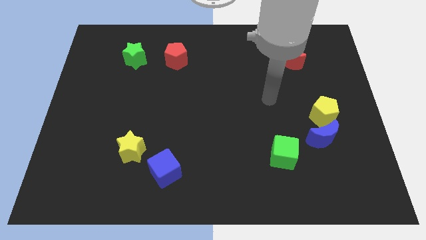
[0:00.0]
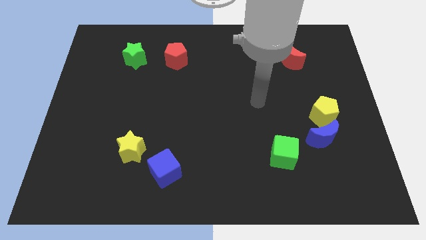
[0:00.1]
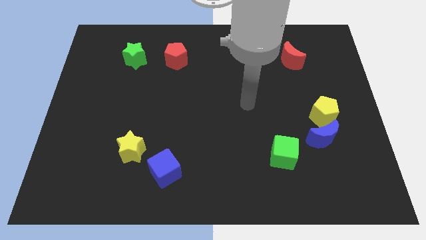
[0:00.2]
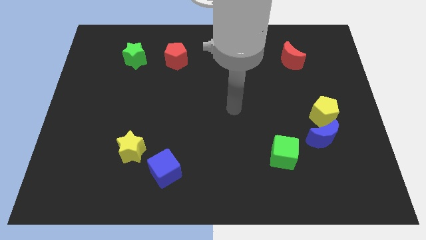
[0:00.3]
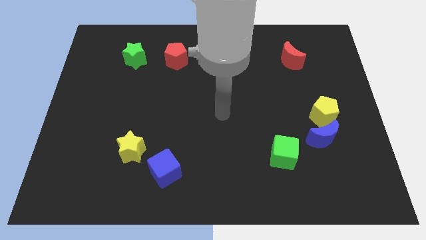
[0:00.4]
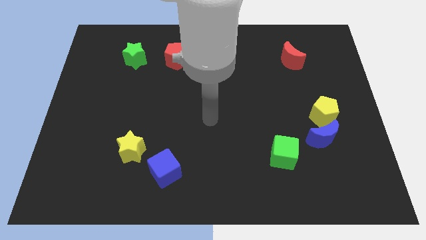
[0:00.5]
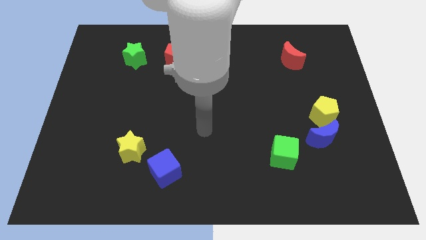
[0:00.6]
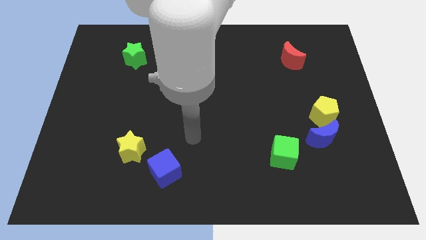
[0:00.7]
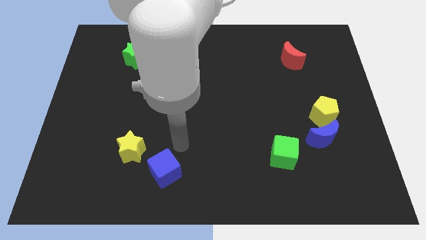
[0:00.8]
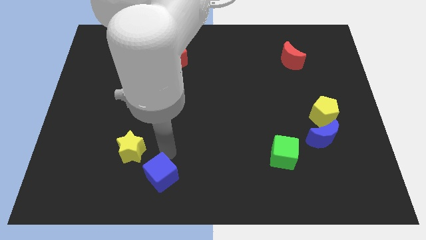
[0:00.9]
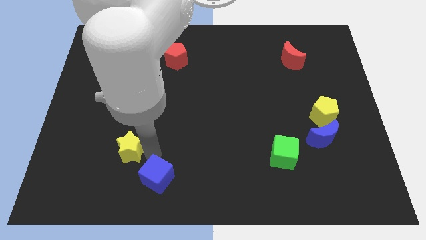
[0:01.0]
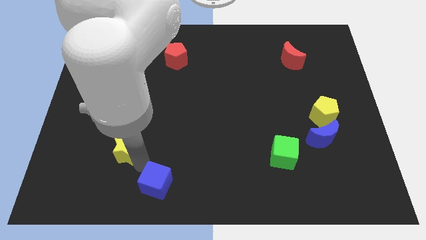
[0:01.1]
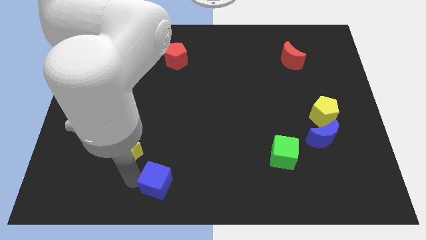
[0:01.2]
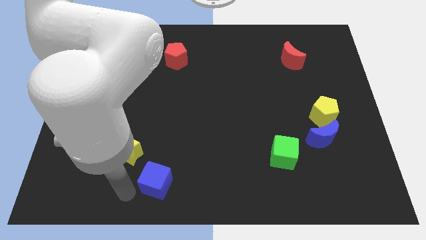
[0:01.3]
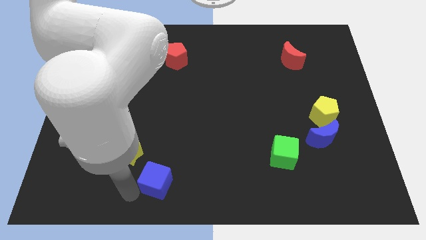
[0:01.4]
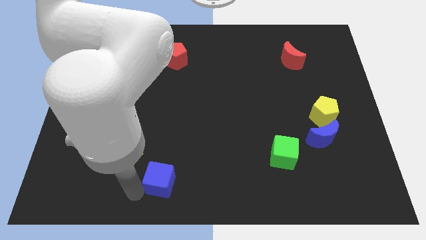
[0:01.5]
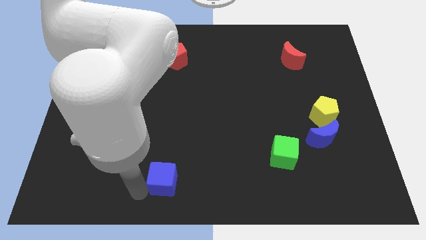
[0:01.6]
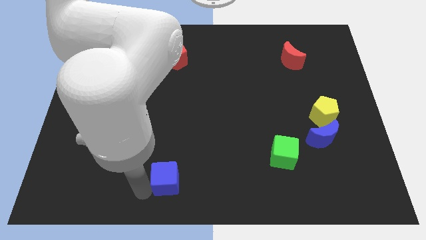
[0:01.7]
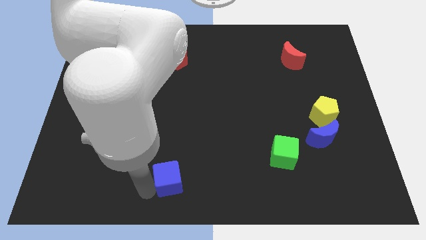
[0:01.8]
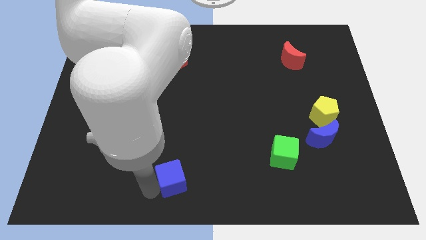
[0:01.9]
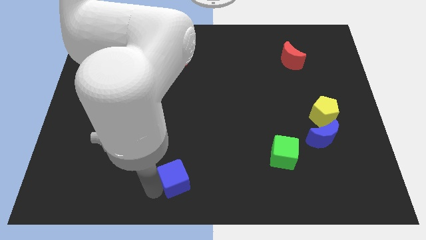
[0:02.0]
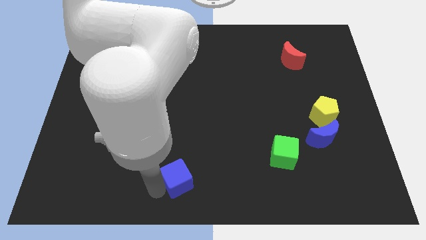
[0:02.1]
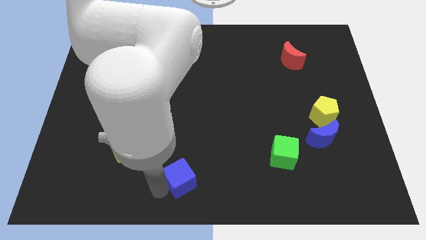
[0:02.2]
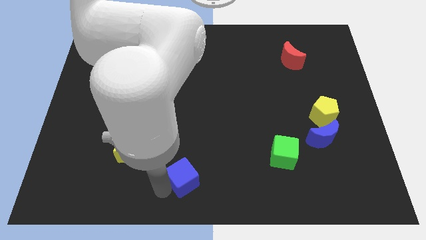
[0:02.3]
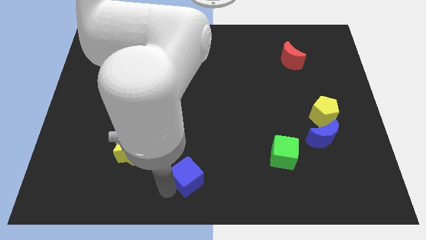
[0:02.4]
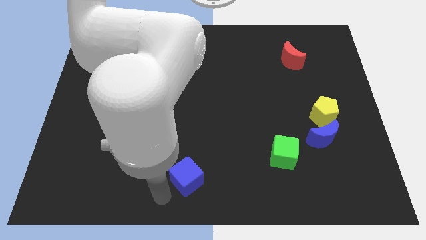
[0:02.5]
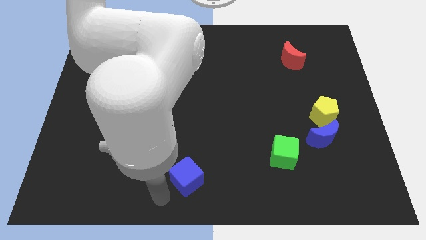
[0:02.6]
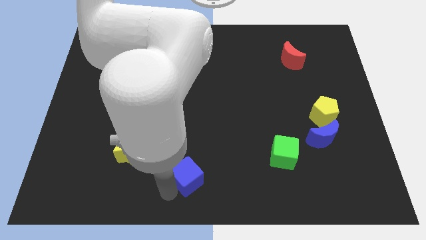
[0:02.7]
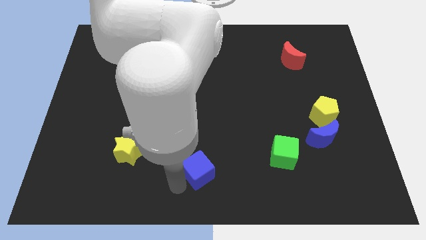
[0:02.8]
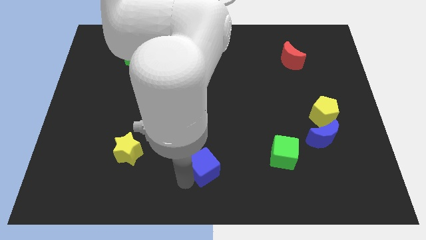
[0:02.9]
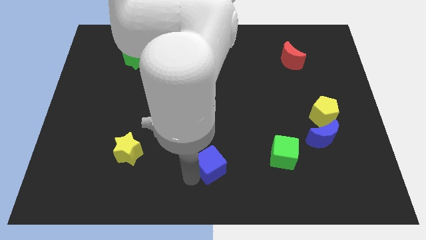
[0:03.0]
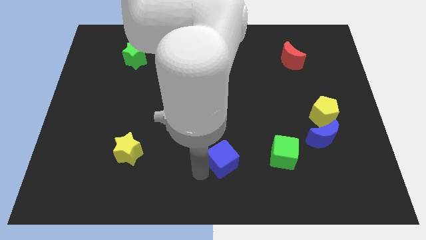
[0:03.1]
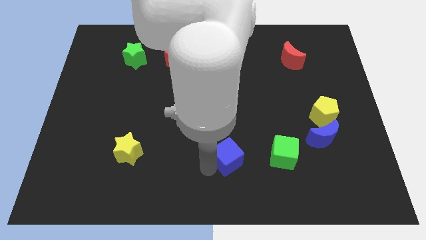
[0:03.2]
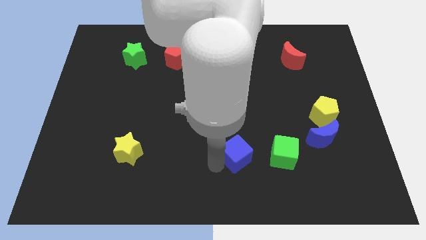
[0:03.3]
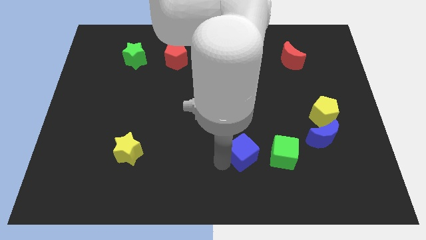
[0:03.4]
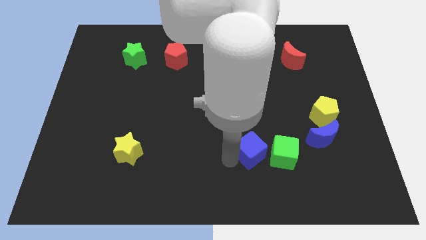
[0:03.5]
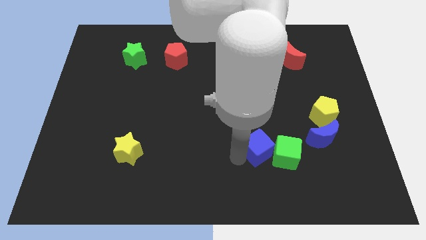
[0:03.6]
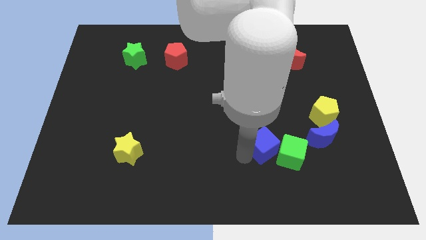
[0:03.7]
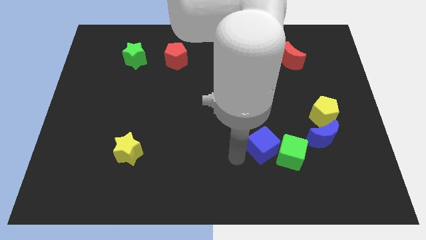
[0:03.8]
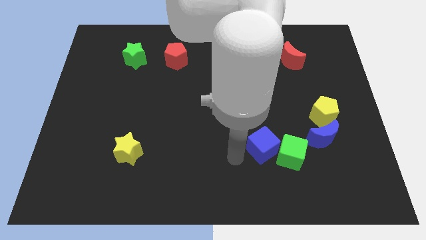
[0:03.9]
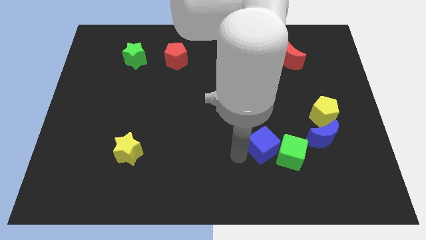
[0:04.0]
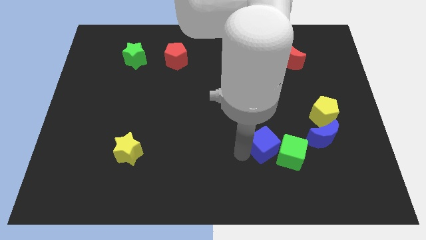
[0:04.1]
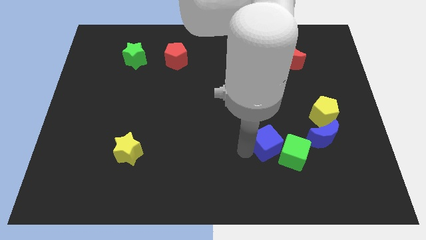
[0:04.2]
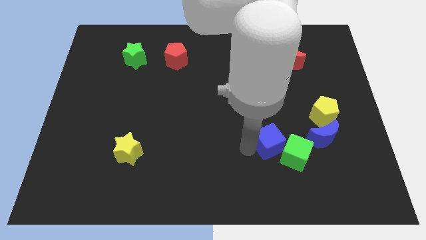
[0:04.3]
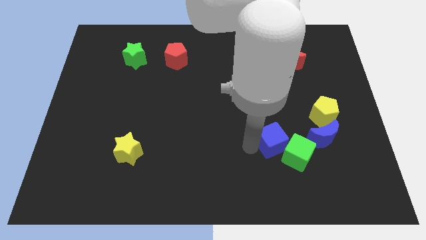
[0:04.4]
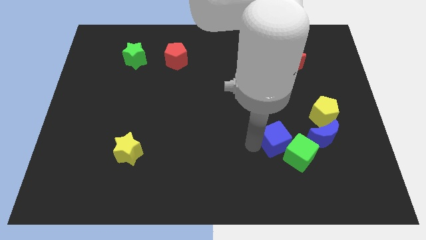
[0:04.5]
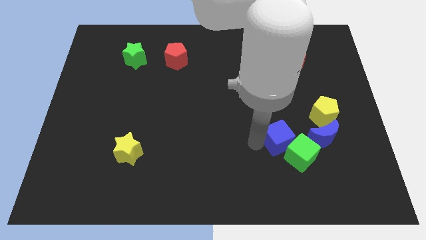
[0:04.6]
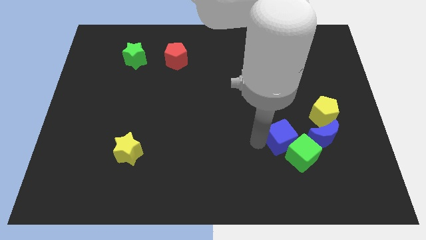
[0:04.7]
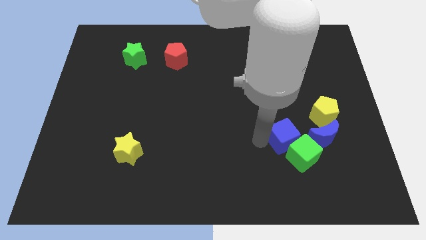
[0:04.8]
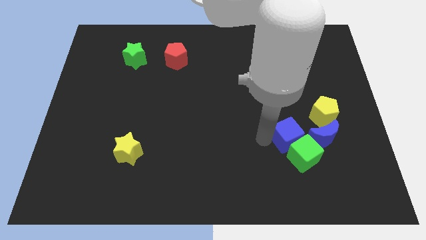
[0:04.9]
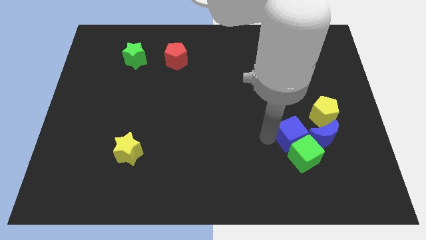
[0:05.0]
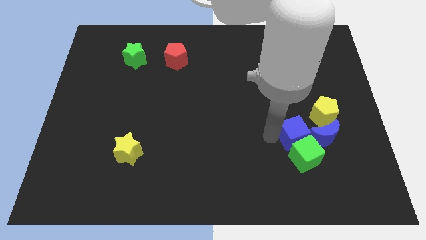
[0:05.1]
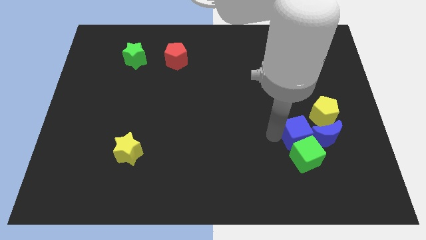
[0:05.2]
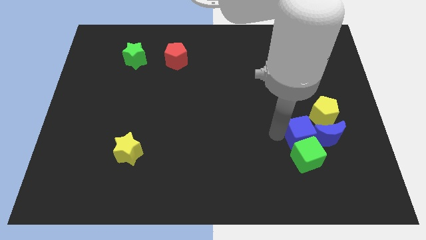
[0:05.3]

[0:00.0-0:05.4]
put the blue cube towards the blue moon

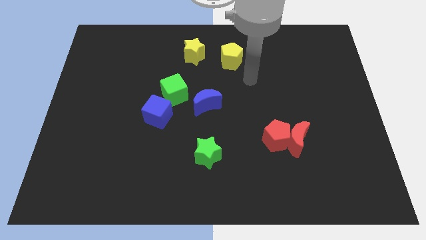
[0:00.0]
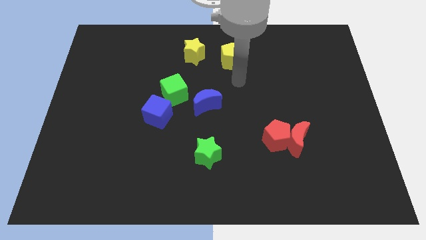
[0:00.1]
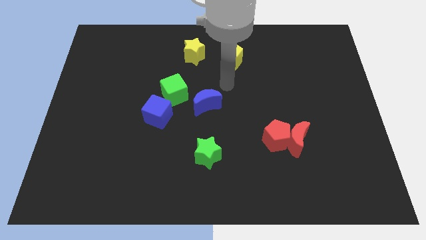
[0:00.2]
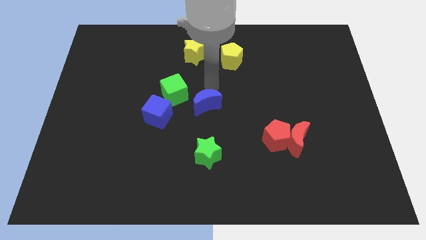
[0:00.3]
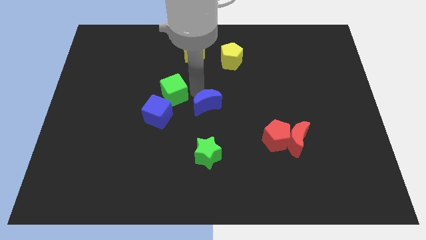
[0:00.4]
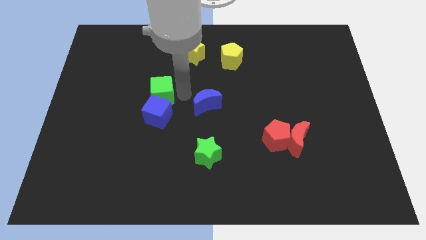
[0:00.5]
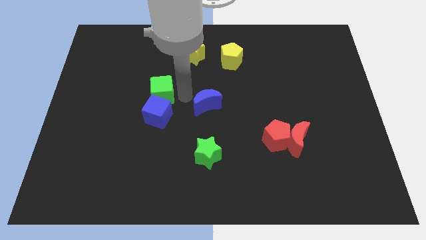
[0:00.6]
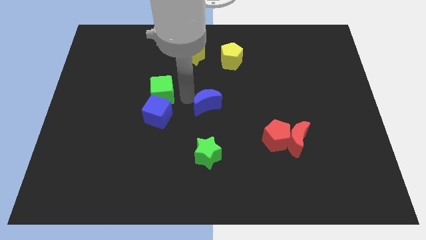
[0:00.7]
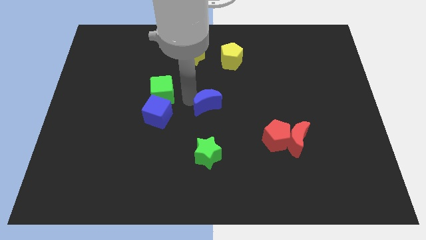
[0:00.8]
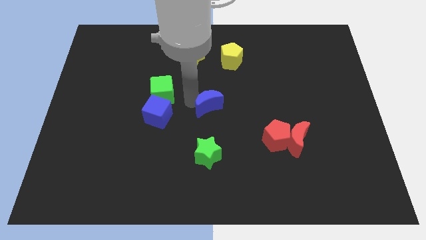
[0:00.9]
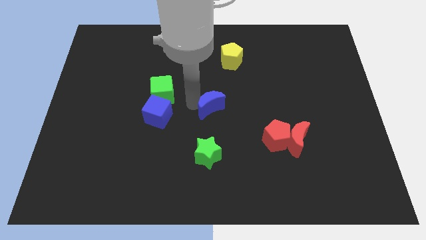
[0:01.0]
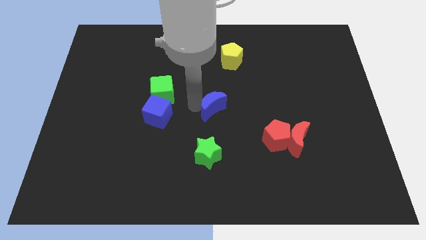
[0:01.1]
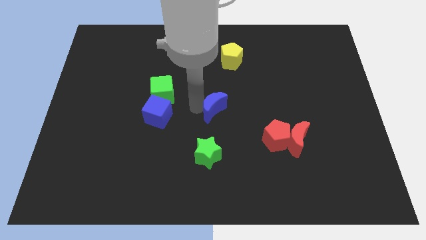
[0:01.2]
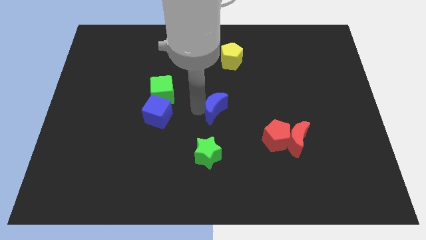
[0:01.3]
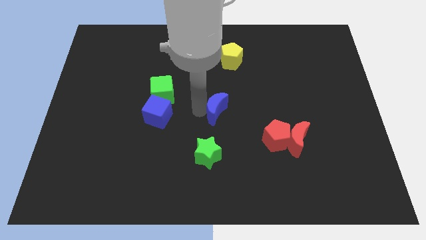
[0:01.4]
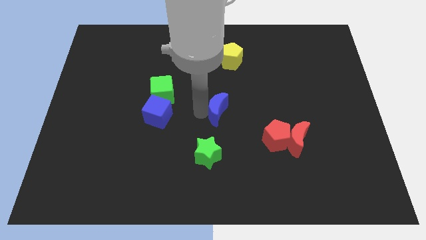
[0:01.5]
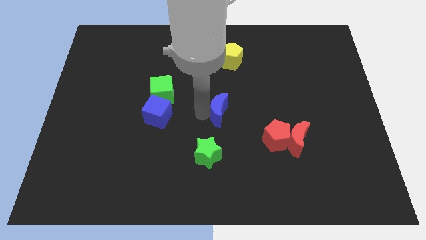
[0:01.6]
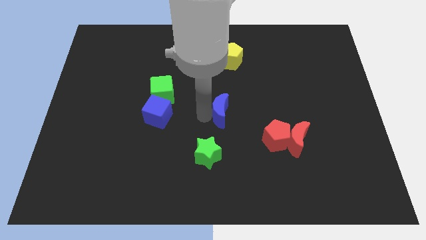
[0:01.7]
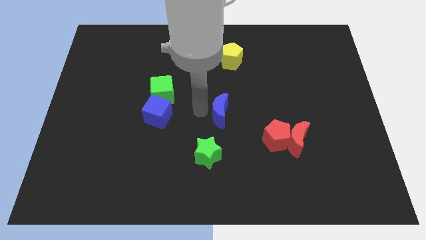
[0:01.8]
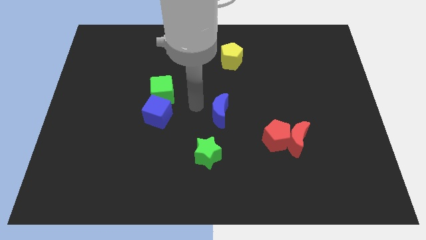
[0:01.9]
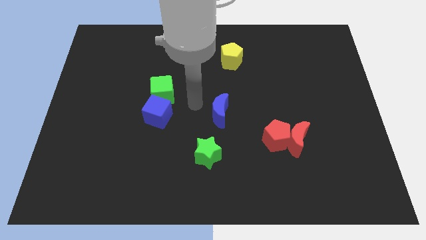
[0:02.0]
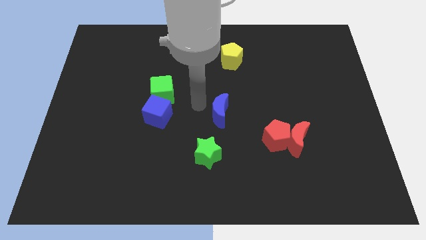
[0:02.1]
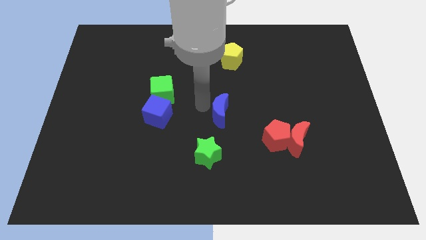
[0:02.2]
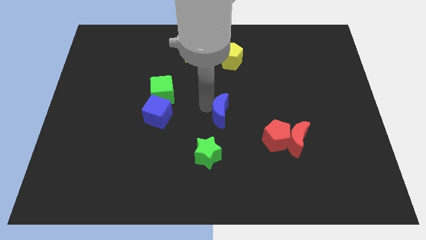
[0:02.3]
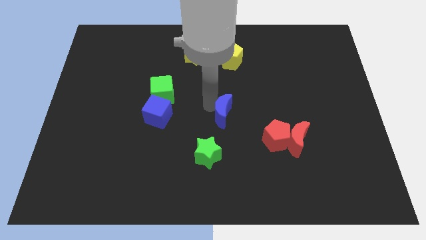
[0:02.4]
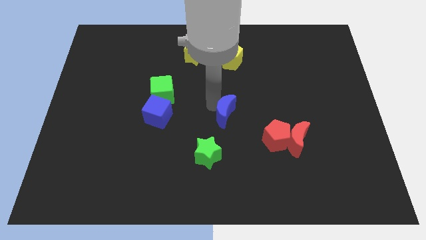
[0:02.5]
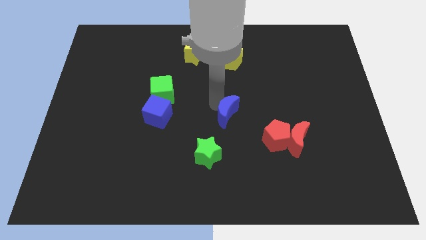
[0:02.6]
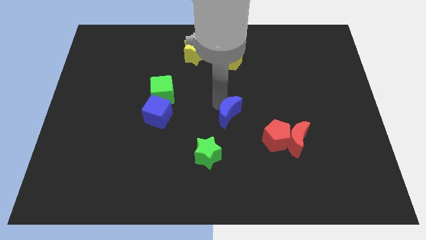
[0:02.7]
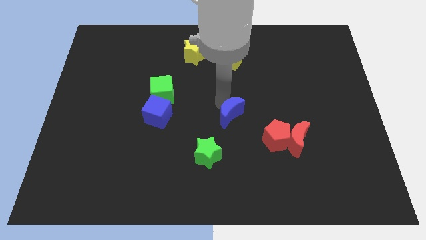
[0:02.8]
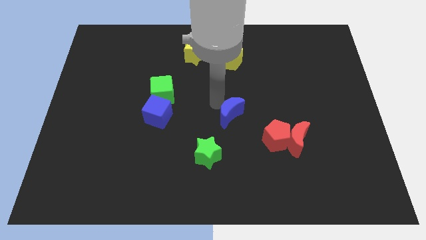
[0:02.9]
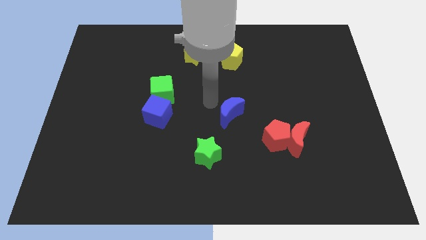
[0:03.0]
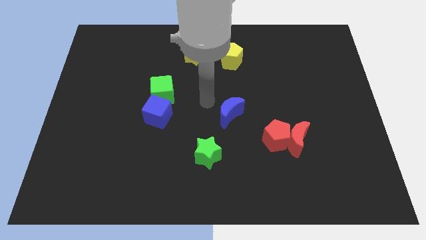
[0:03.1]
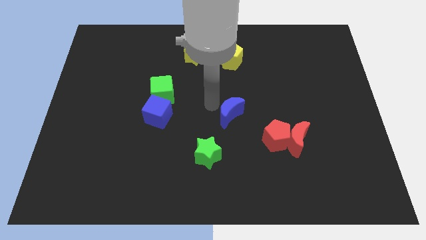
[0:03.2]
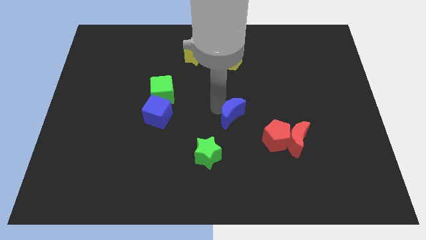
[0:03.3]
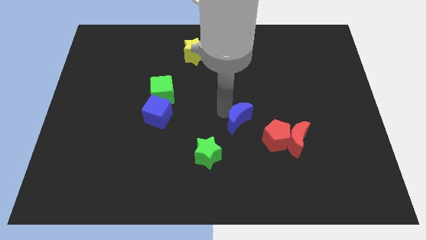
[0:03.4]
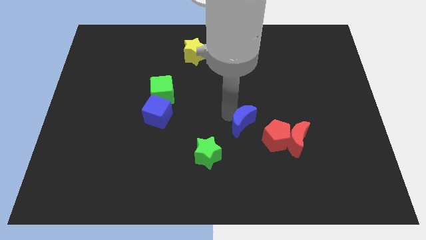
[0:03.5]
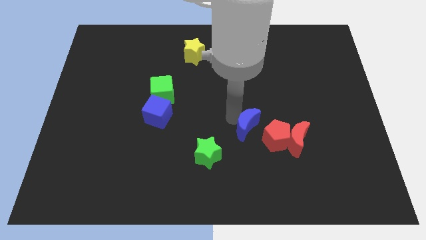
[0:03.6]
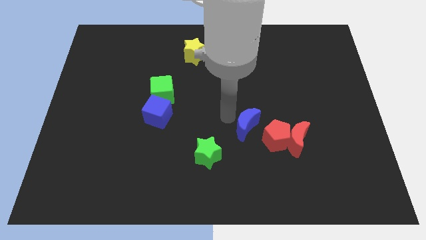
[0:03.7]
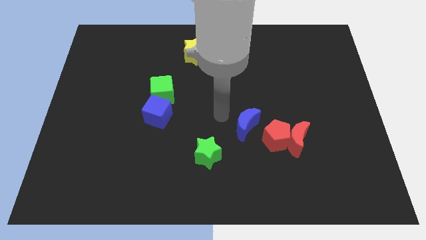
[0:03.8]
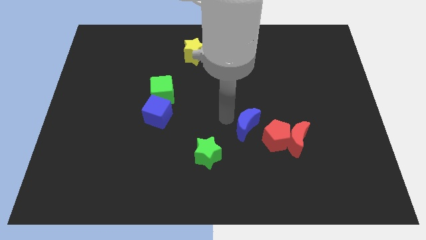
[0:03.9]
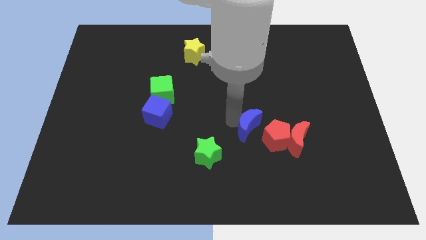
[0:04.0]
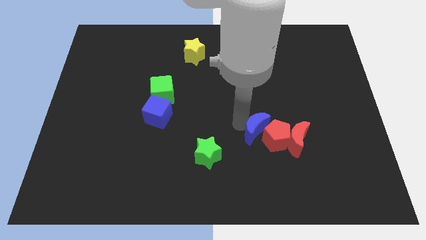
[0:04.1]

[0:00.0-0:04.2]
push the blue moon towards the red pentagon
